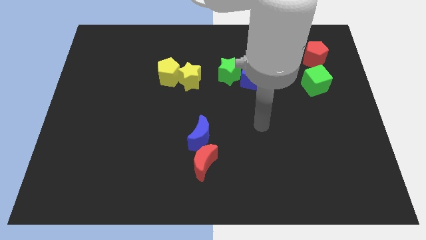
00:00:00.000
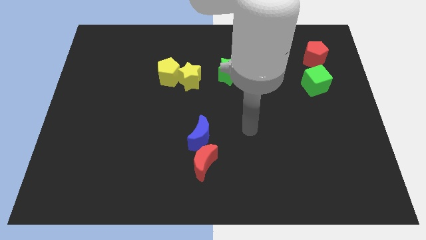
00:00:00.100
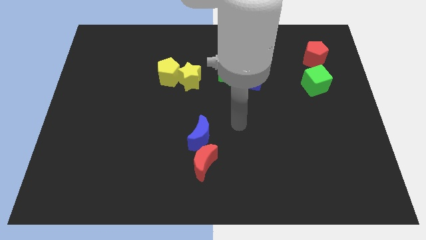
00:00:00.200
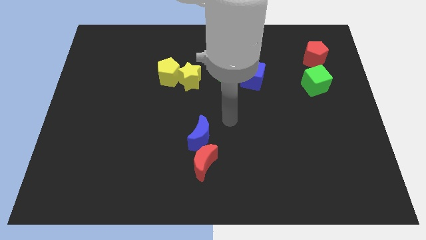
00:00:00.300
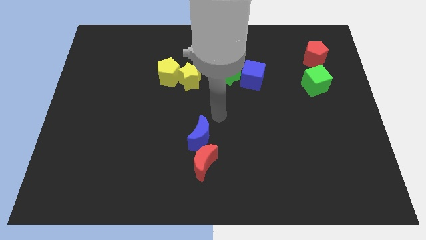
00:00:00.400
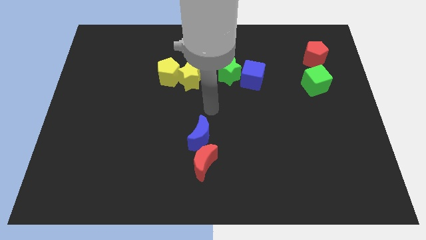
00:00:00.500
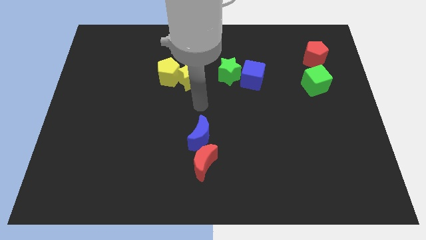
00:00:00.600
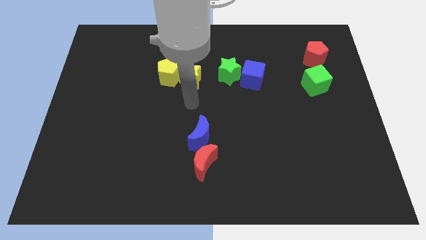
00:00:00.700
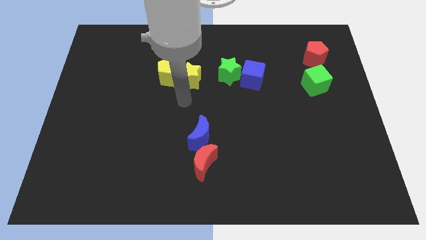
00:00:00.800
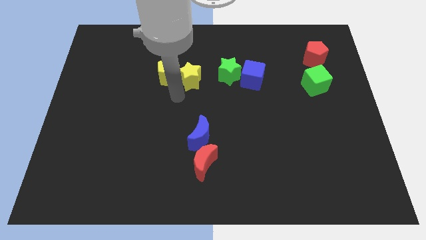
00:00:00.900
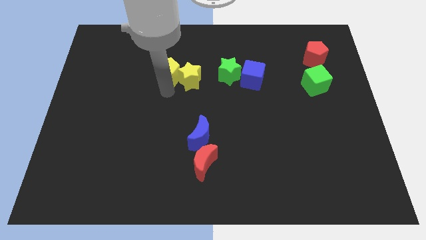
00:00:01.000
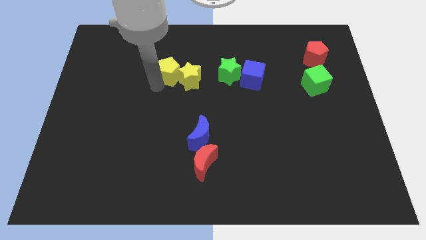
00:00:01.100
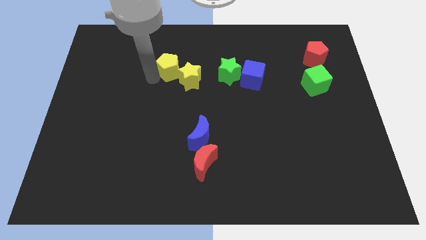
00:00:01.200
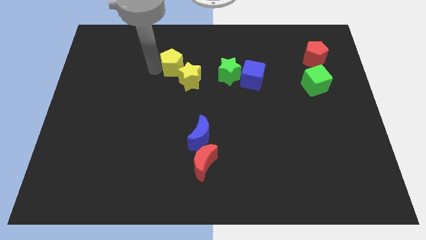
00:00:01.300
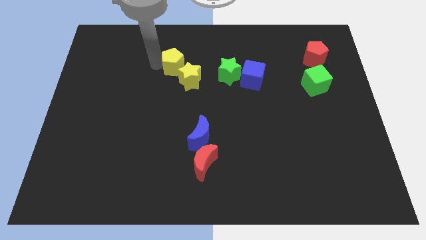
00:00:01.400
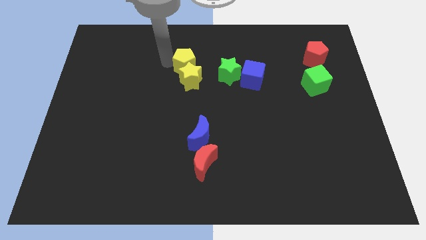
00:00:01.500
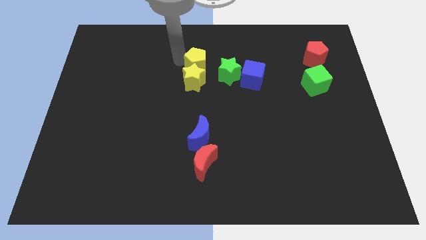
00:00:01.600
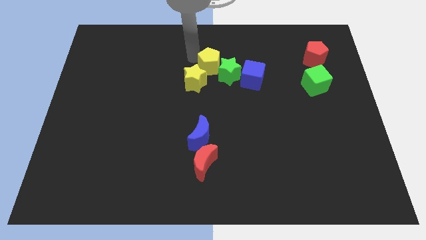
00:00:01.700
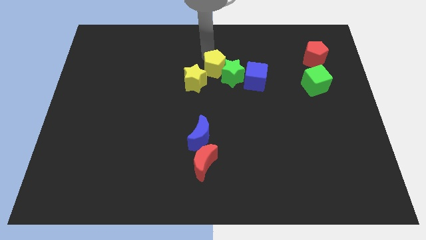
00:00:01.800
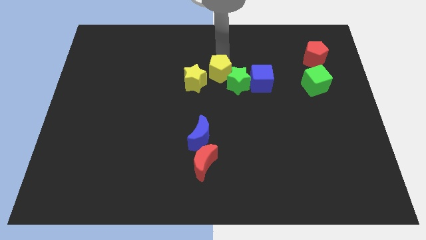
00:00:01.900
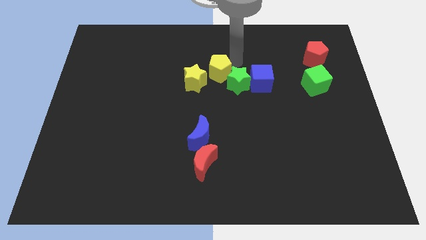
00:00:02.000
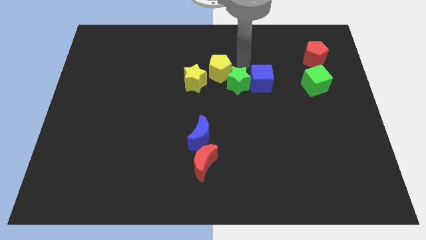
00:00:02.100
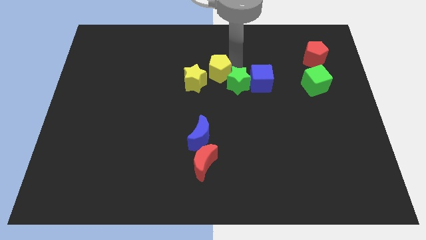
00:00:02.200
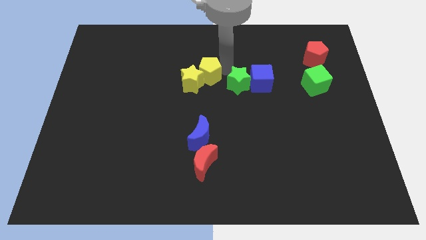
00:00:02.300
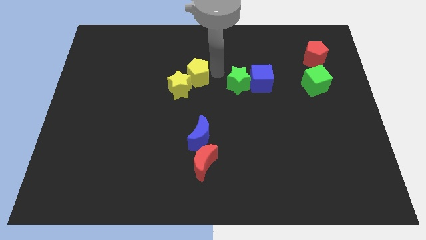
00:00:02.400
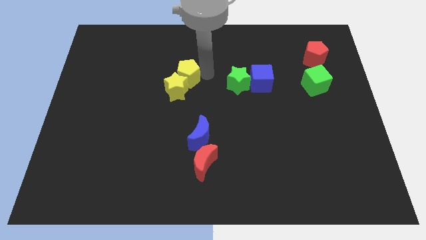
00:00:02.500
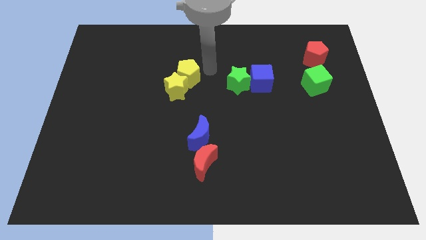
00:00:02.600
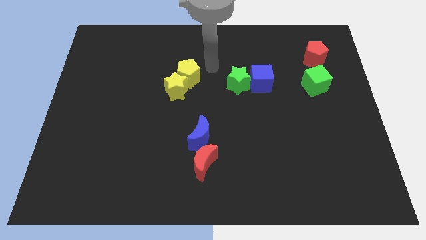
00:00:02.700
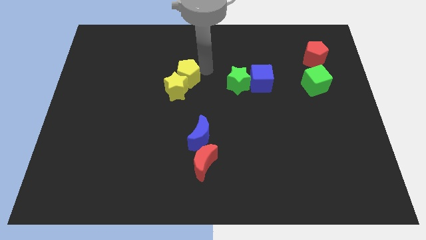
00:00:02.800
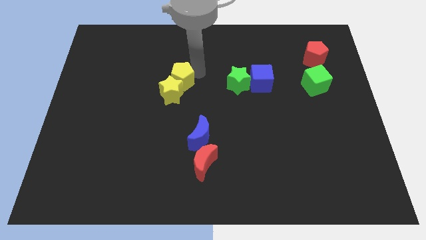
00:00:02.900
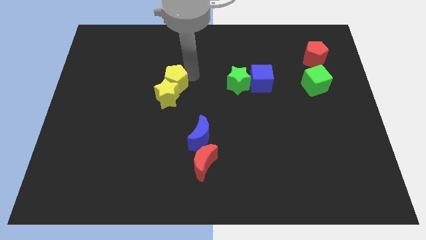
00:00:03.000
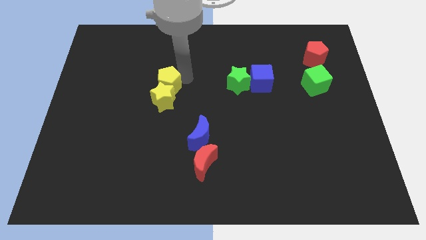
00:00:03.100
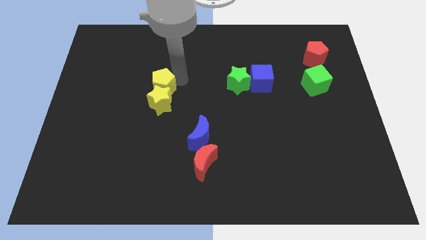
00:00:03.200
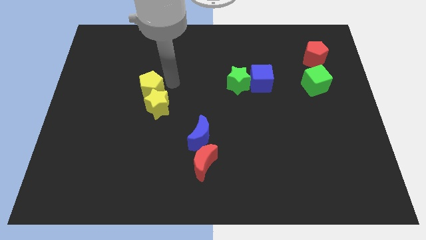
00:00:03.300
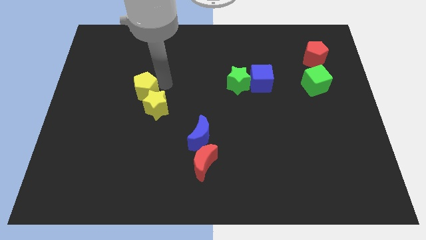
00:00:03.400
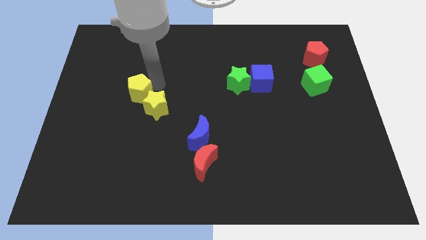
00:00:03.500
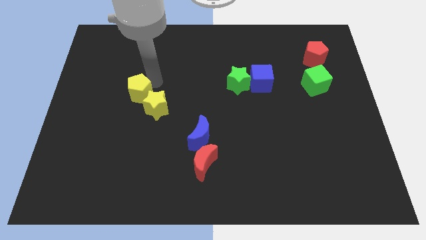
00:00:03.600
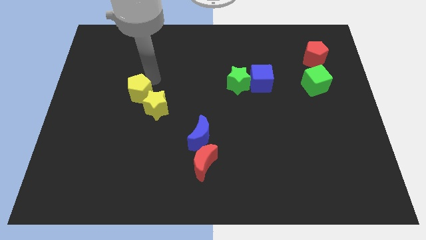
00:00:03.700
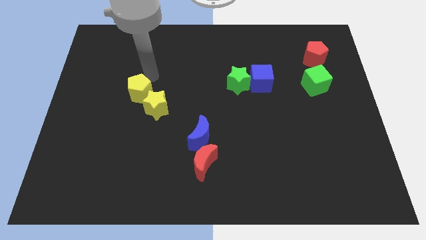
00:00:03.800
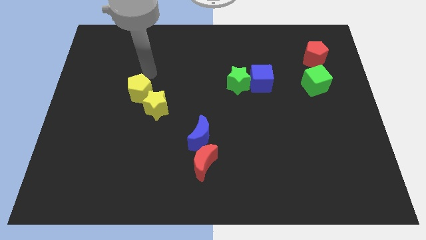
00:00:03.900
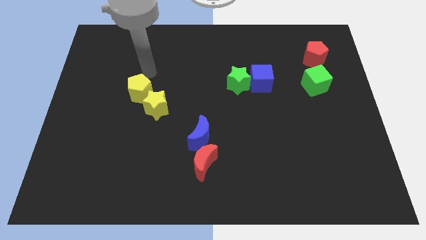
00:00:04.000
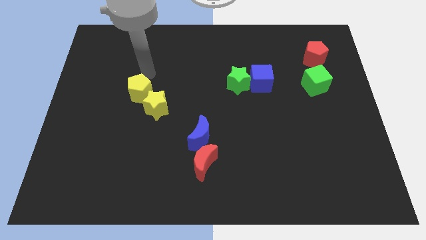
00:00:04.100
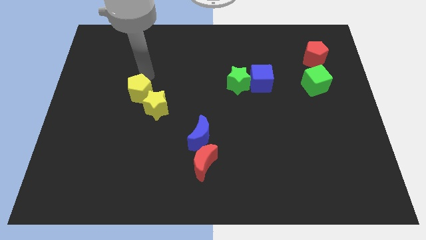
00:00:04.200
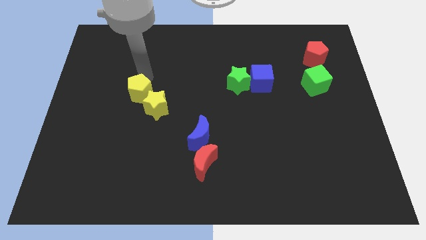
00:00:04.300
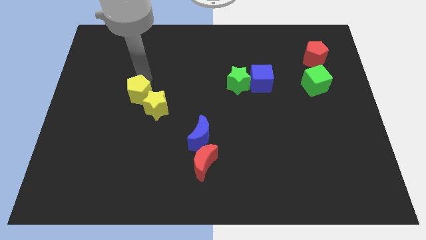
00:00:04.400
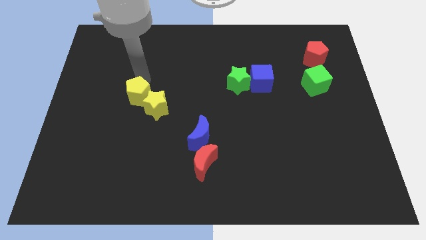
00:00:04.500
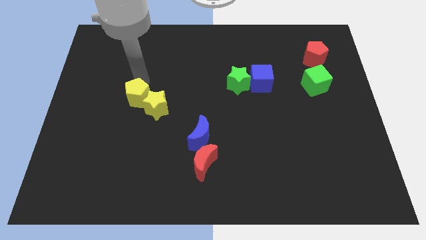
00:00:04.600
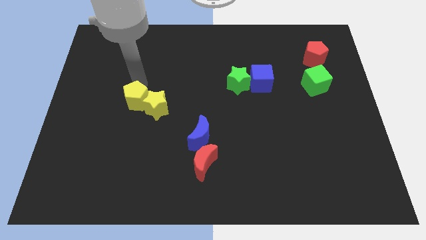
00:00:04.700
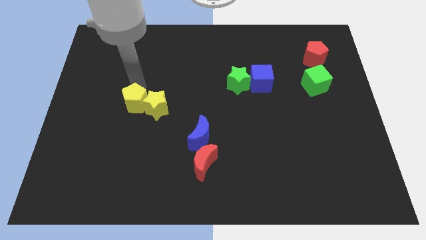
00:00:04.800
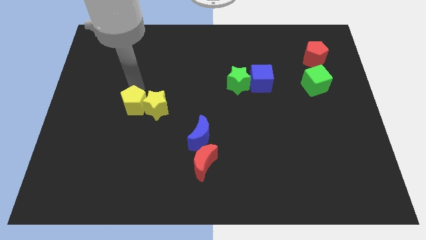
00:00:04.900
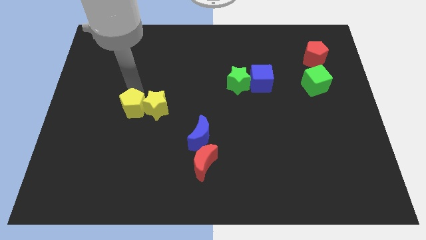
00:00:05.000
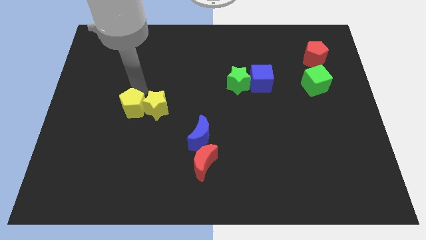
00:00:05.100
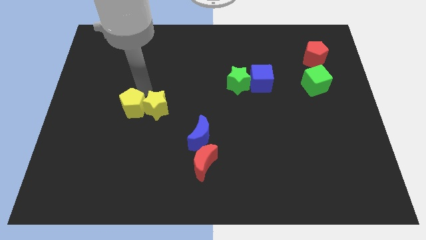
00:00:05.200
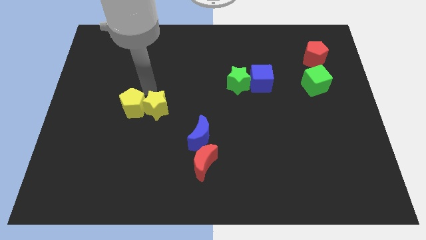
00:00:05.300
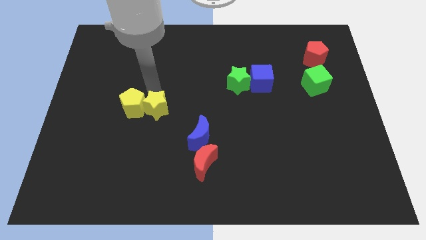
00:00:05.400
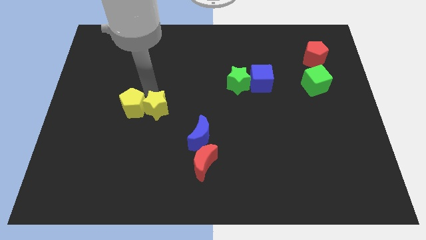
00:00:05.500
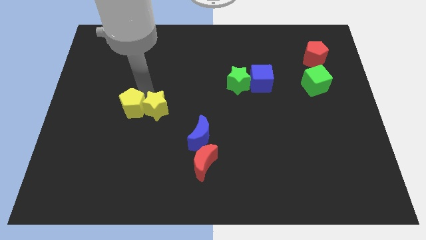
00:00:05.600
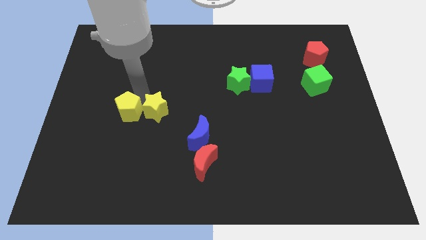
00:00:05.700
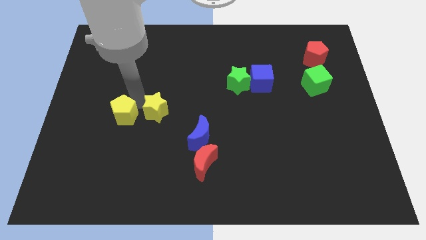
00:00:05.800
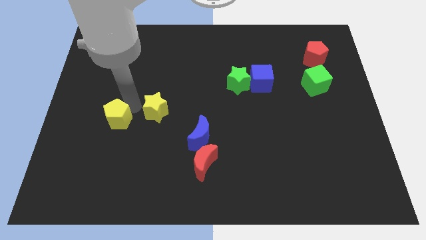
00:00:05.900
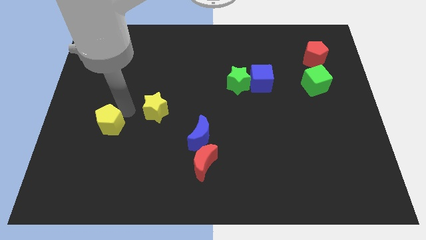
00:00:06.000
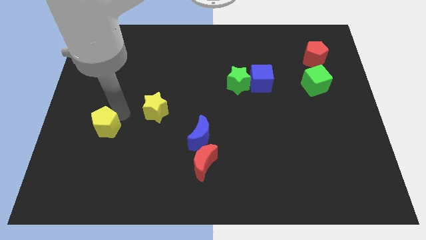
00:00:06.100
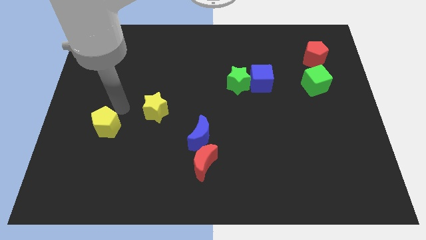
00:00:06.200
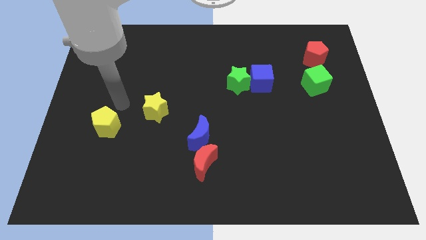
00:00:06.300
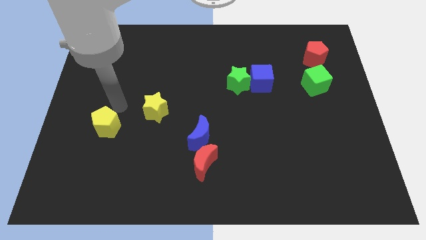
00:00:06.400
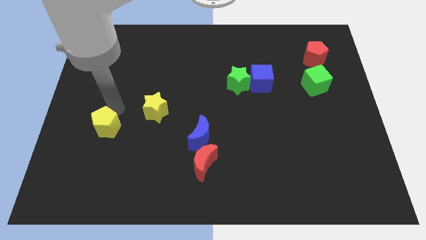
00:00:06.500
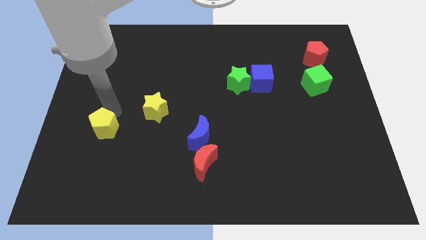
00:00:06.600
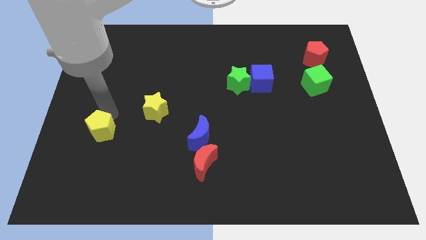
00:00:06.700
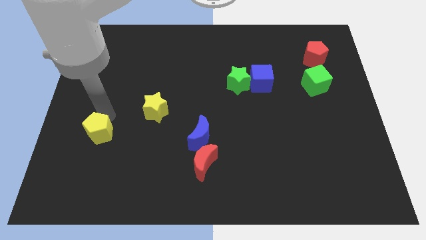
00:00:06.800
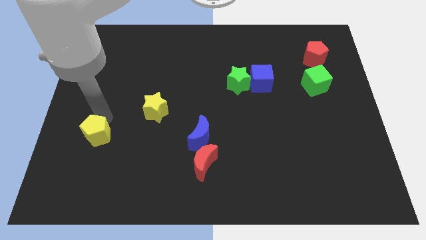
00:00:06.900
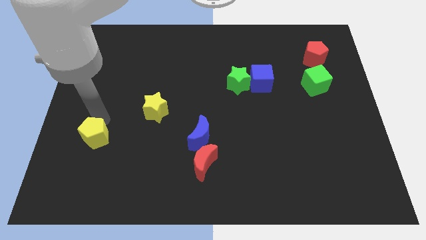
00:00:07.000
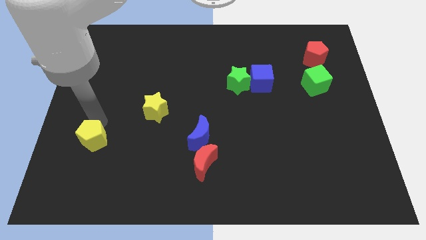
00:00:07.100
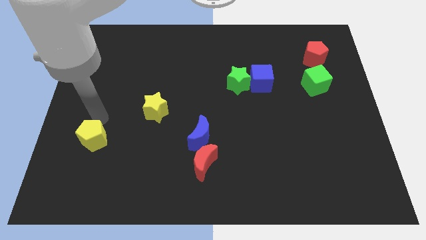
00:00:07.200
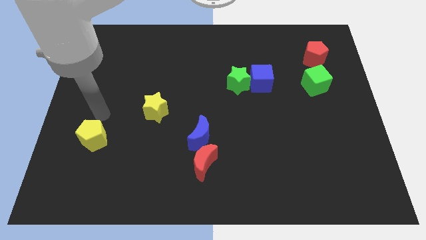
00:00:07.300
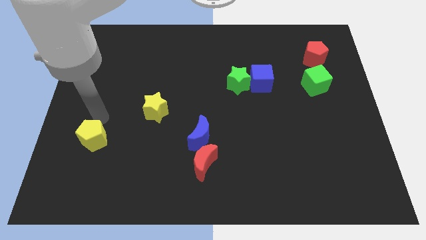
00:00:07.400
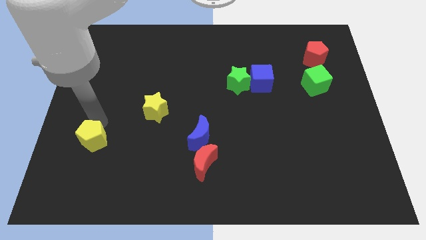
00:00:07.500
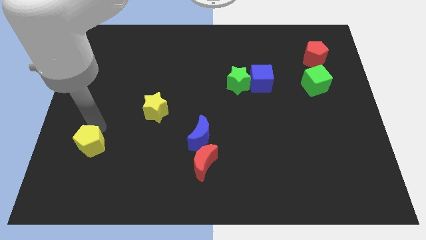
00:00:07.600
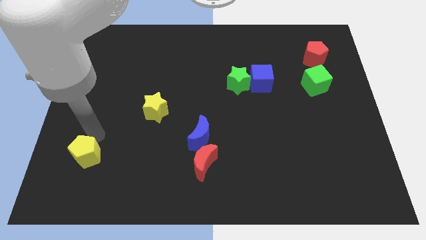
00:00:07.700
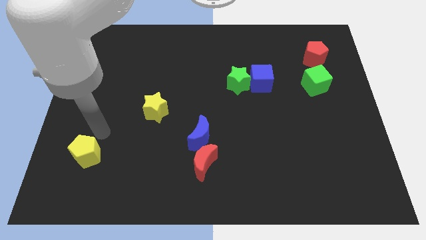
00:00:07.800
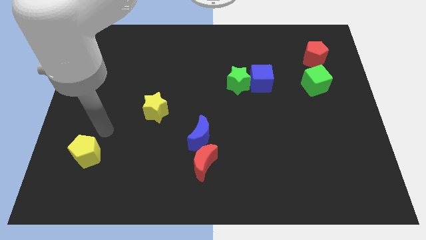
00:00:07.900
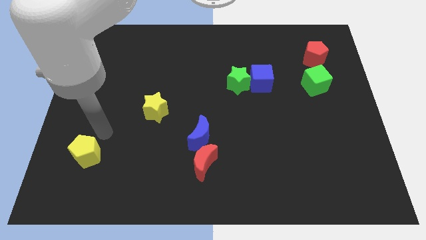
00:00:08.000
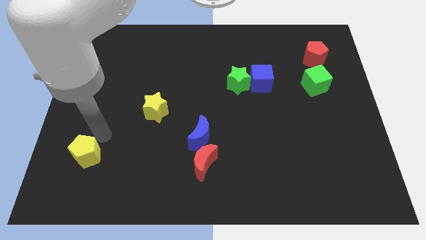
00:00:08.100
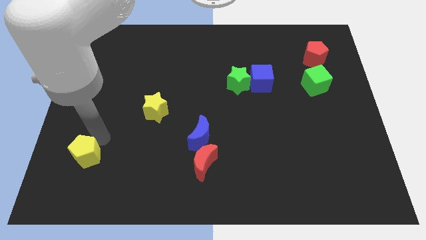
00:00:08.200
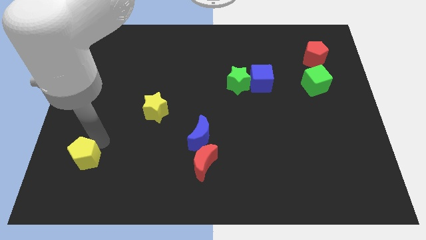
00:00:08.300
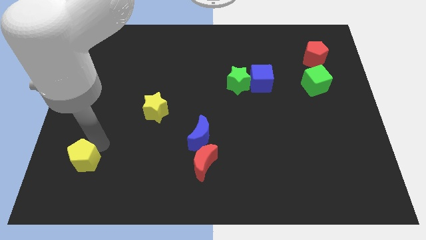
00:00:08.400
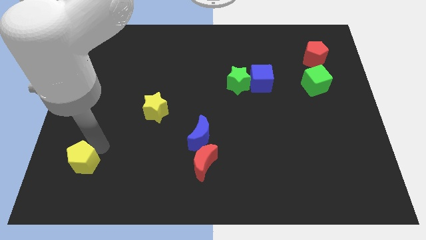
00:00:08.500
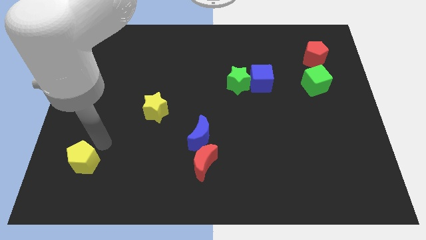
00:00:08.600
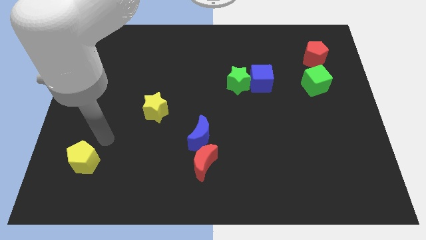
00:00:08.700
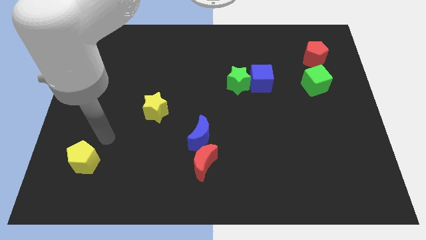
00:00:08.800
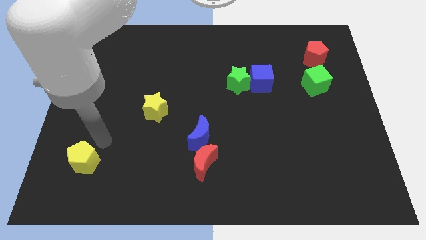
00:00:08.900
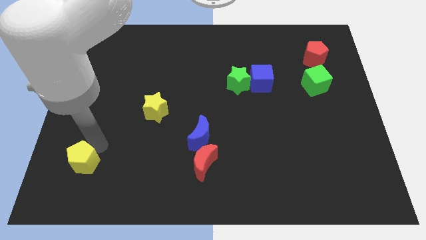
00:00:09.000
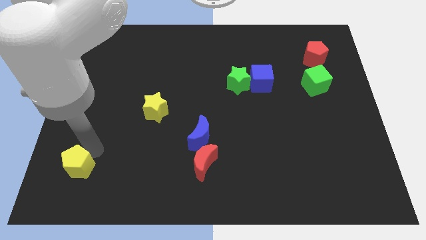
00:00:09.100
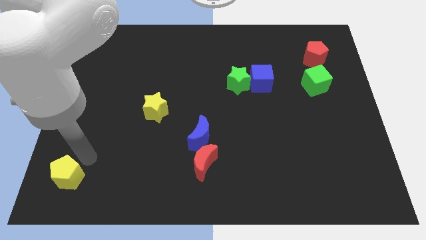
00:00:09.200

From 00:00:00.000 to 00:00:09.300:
put the yellow pentagon to the lower left corner
